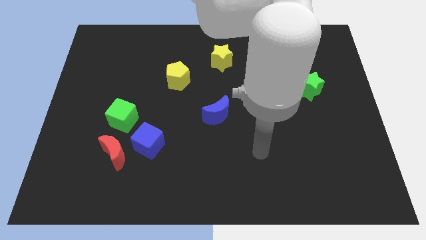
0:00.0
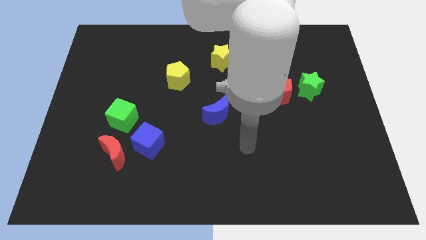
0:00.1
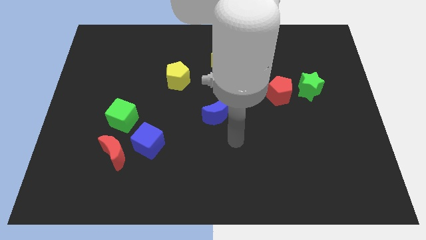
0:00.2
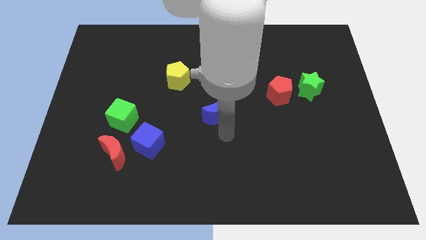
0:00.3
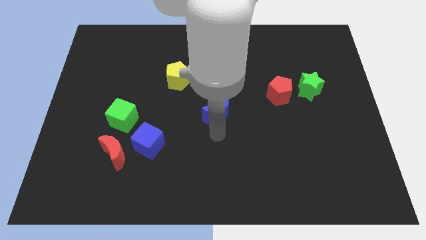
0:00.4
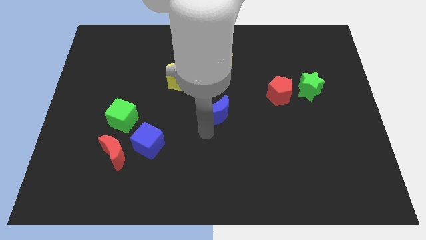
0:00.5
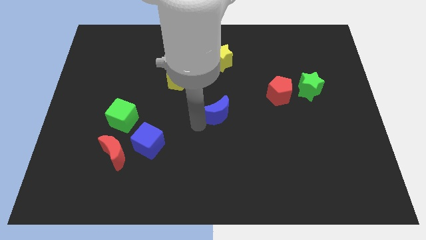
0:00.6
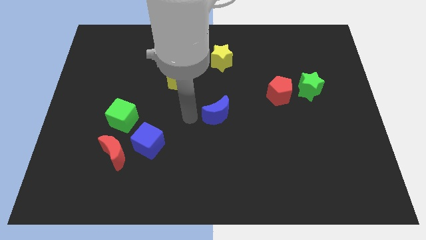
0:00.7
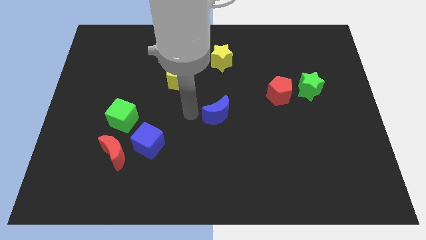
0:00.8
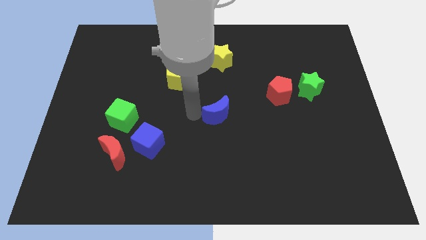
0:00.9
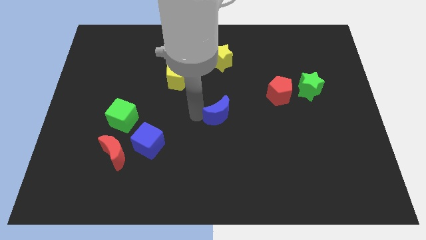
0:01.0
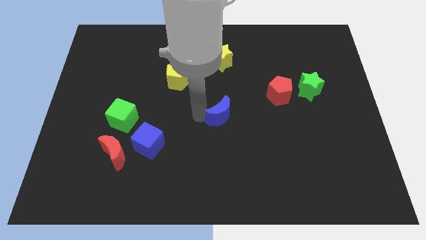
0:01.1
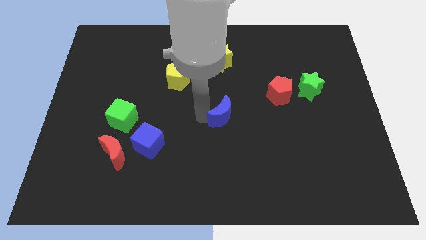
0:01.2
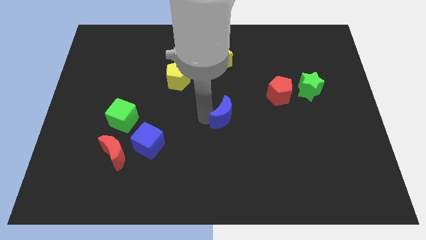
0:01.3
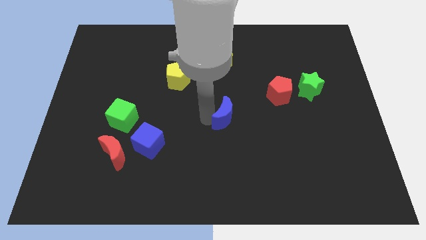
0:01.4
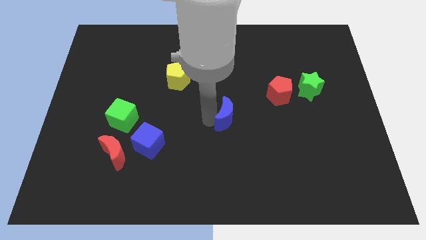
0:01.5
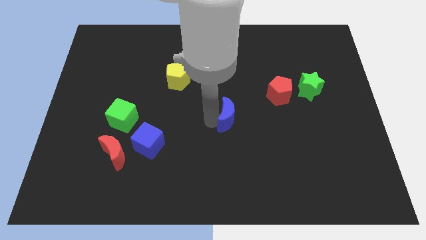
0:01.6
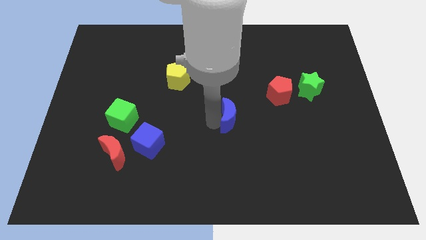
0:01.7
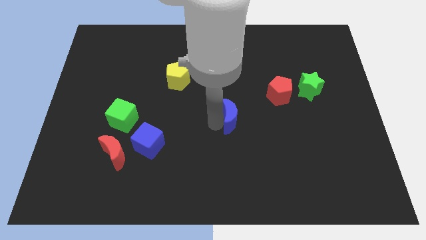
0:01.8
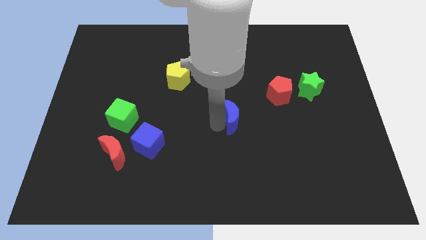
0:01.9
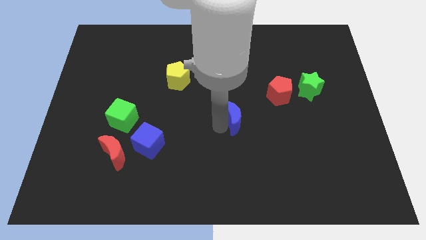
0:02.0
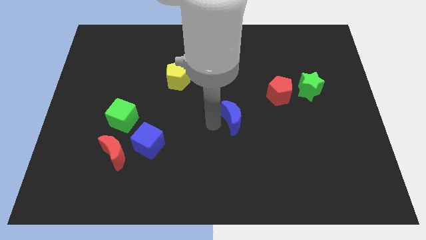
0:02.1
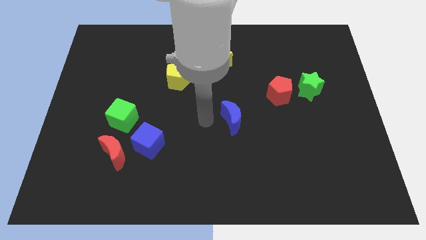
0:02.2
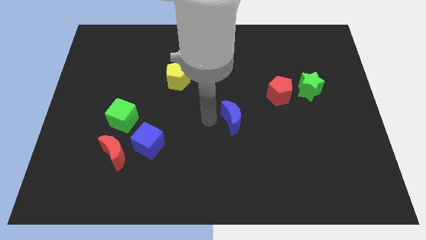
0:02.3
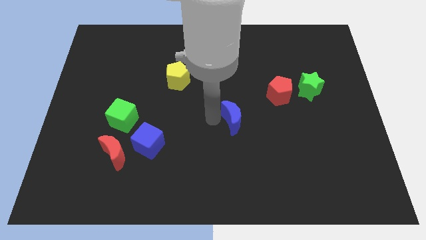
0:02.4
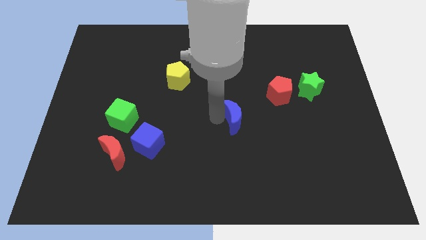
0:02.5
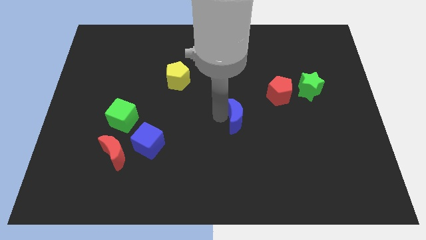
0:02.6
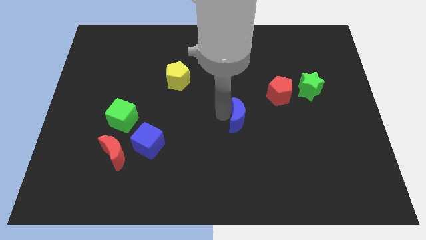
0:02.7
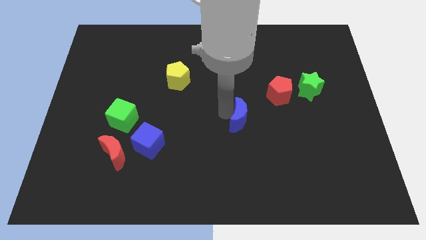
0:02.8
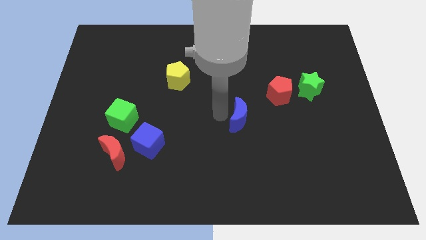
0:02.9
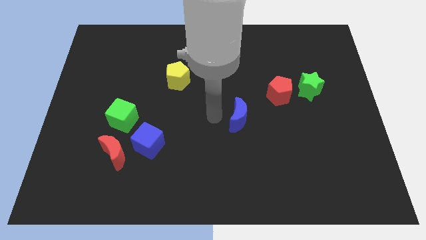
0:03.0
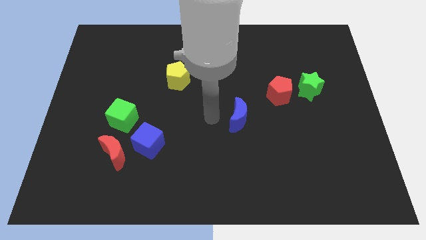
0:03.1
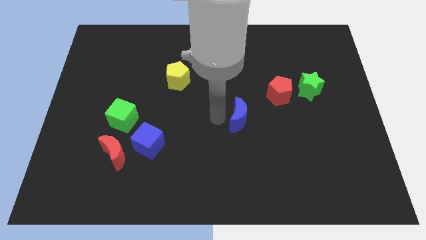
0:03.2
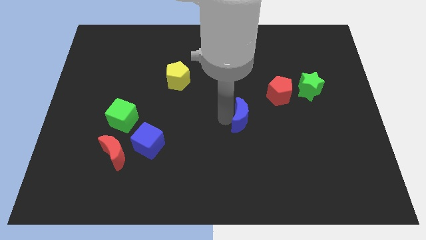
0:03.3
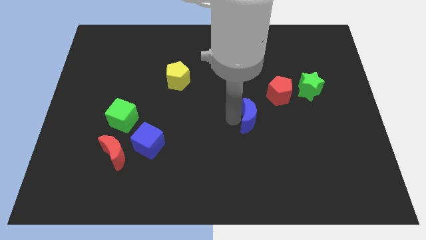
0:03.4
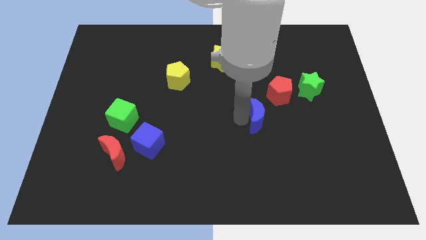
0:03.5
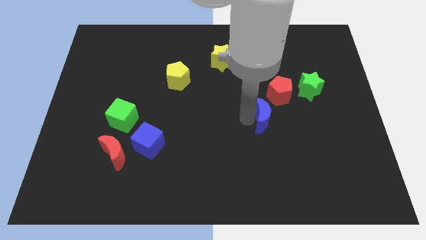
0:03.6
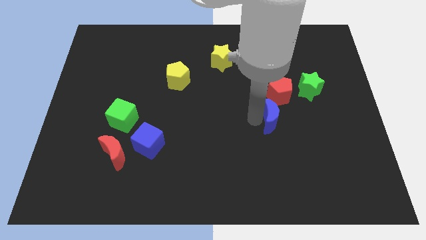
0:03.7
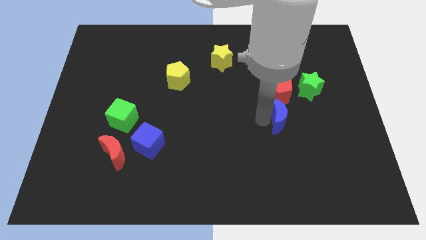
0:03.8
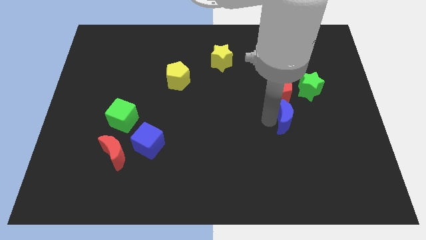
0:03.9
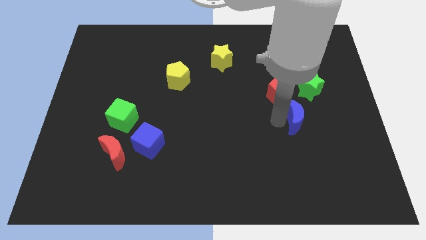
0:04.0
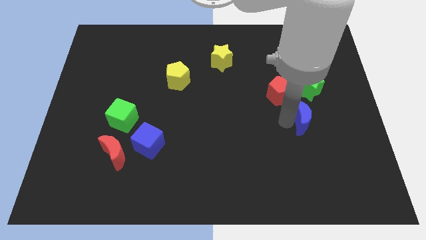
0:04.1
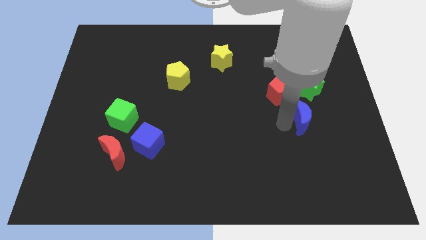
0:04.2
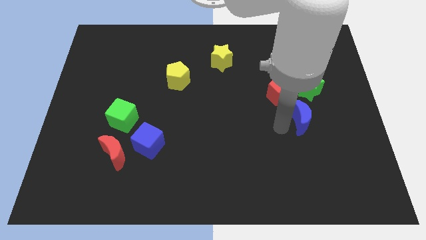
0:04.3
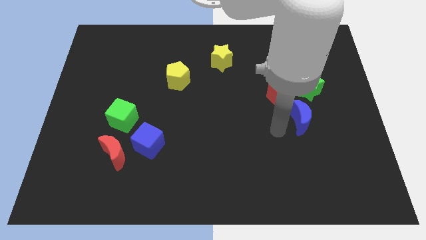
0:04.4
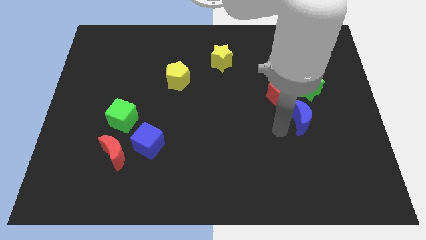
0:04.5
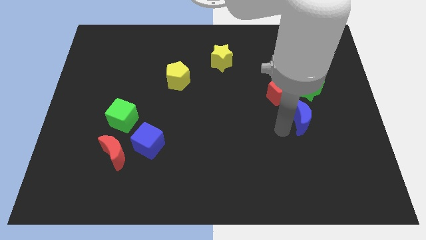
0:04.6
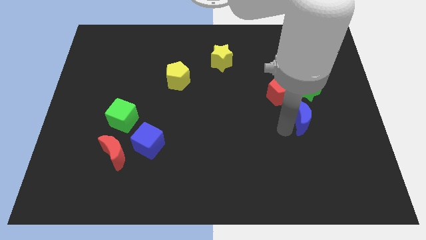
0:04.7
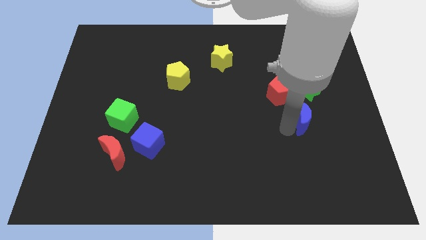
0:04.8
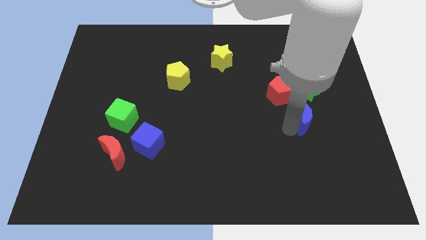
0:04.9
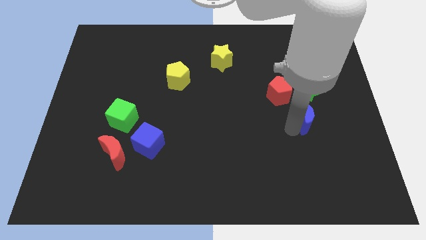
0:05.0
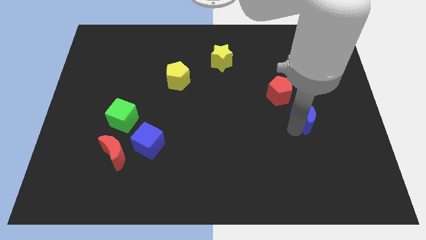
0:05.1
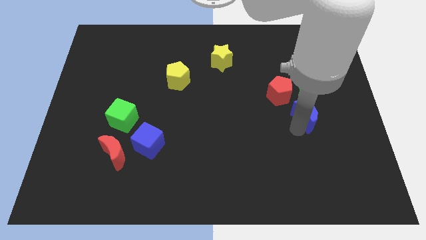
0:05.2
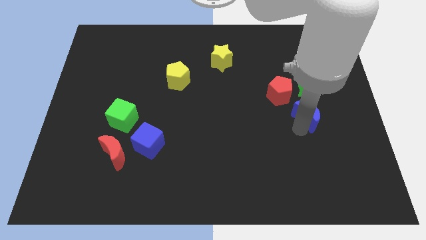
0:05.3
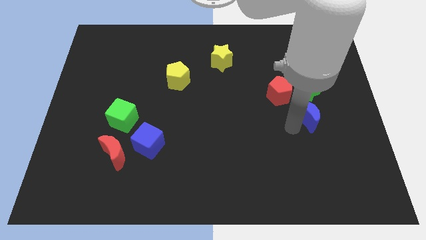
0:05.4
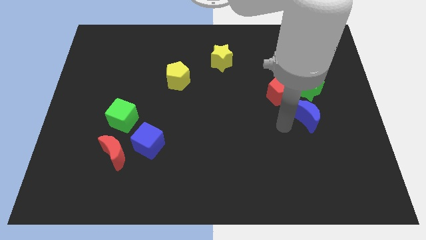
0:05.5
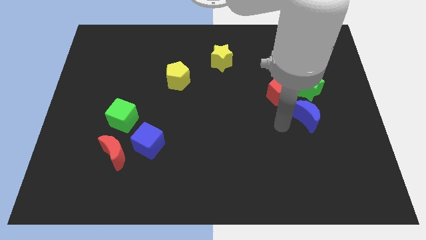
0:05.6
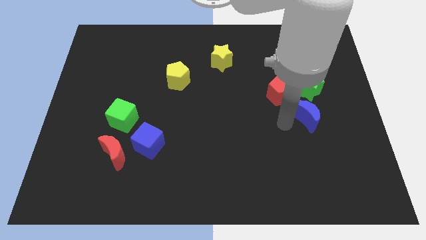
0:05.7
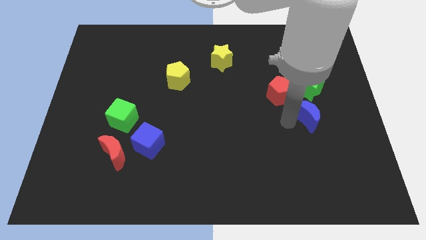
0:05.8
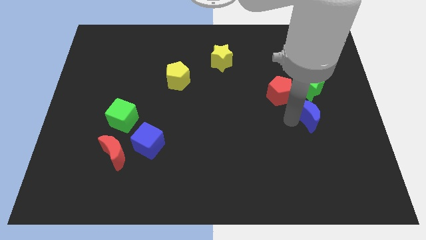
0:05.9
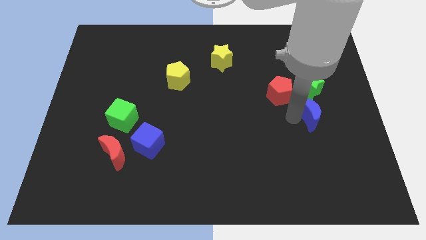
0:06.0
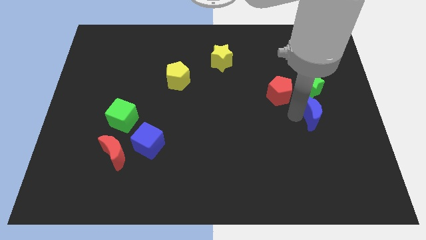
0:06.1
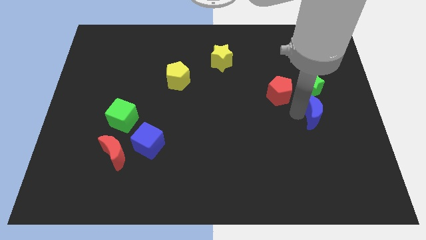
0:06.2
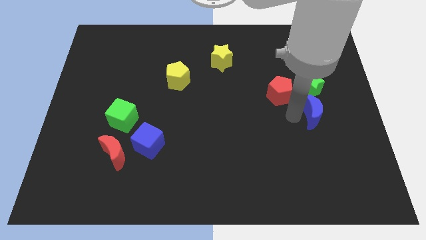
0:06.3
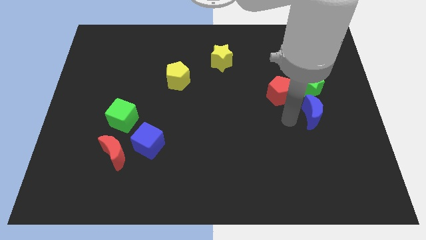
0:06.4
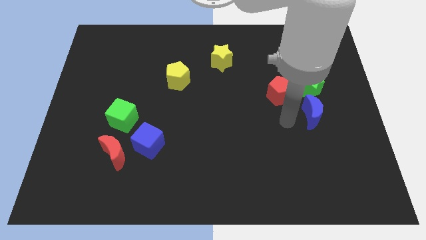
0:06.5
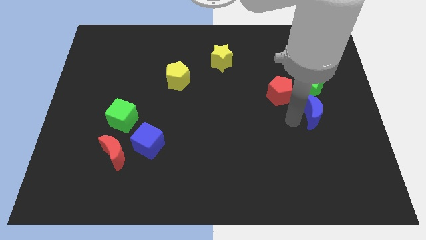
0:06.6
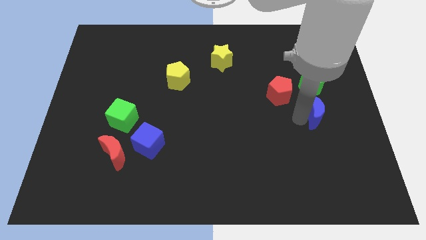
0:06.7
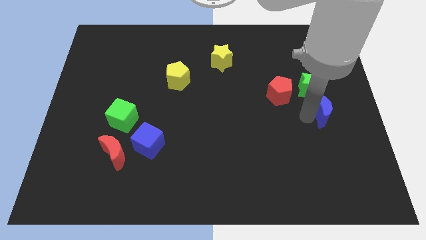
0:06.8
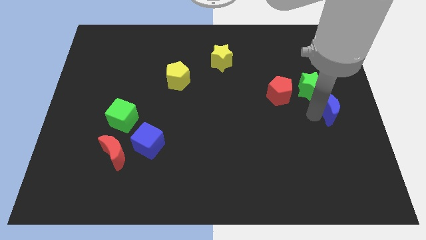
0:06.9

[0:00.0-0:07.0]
push the blue moon to the right side of the board
